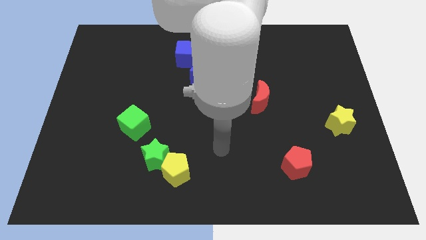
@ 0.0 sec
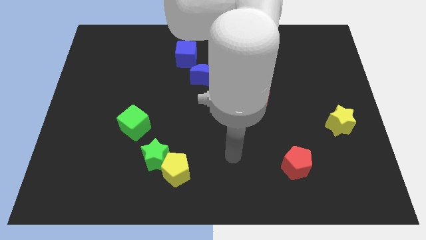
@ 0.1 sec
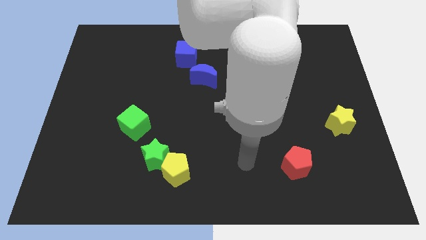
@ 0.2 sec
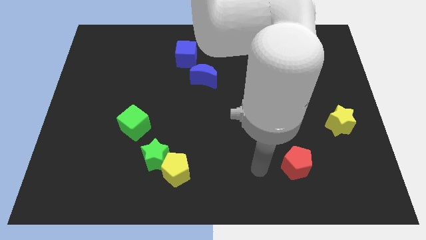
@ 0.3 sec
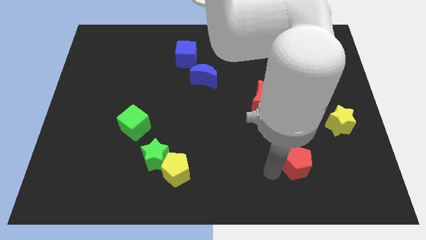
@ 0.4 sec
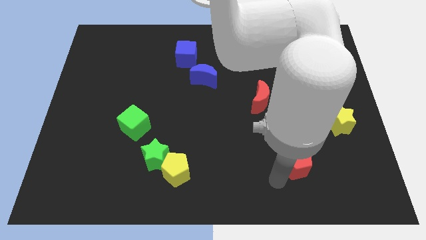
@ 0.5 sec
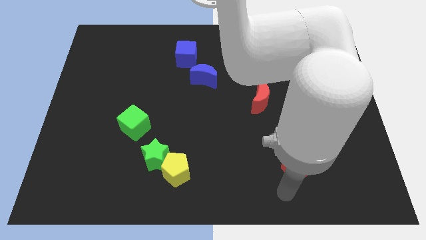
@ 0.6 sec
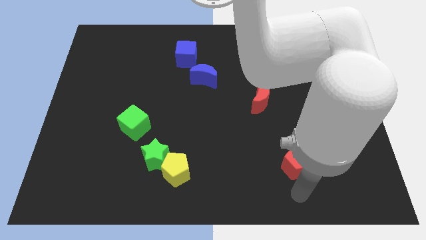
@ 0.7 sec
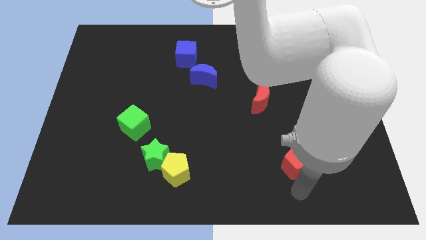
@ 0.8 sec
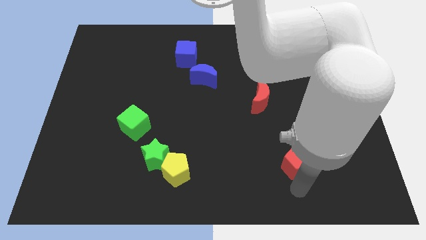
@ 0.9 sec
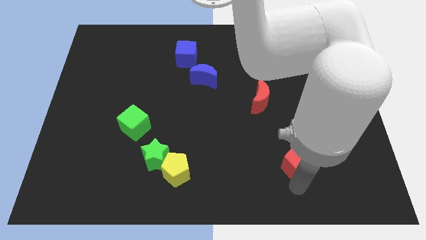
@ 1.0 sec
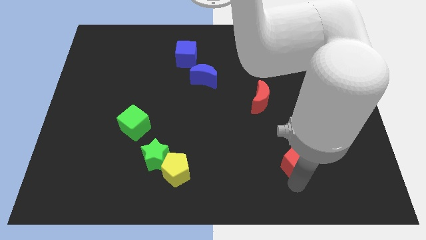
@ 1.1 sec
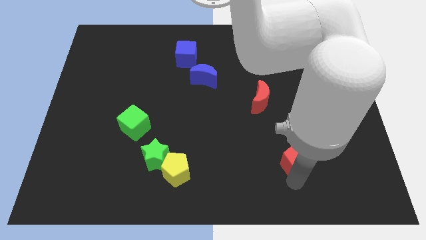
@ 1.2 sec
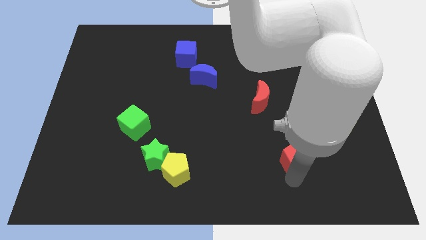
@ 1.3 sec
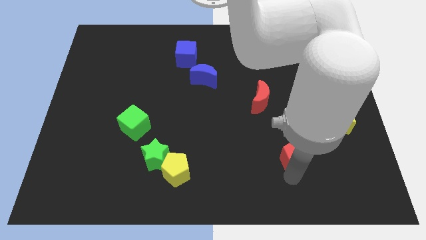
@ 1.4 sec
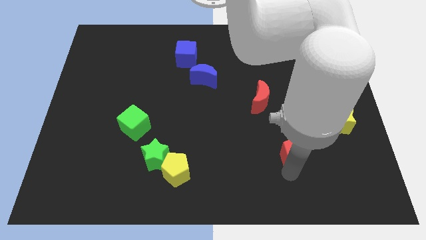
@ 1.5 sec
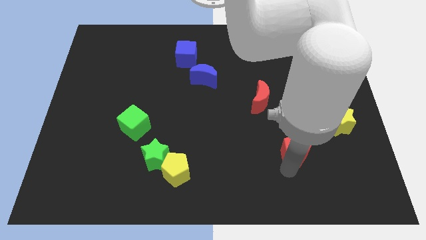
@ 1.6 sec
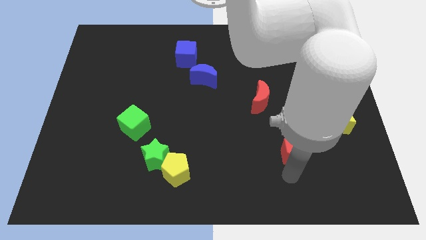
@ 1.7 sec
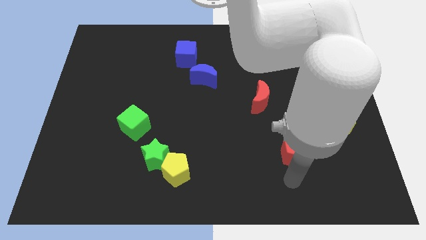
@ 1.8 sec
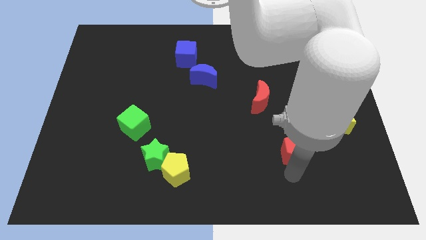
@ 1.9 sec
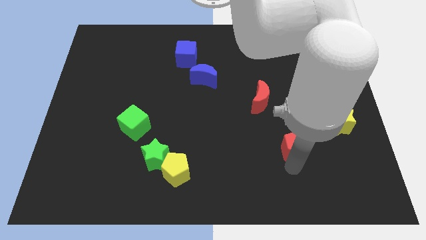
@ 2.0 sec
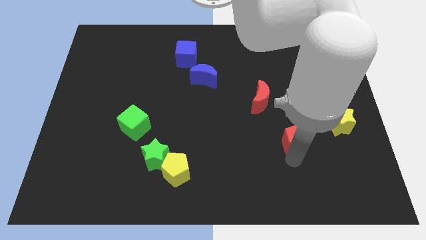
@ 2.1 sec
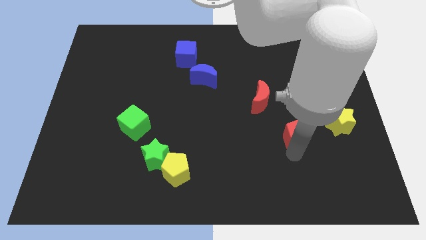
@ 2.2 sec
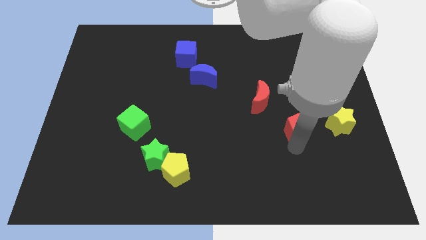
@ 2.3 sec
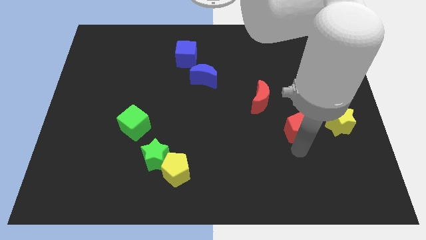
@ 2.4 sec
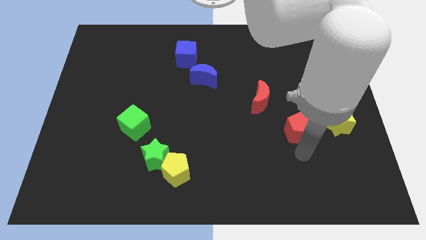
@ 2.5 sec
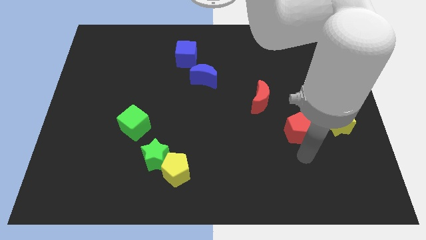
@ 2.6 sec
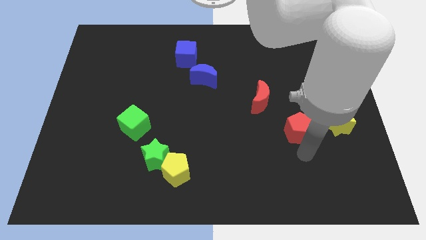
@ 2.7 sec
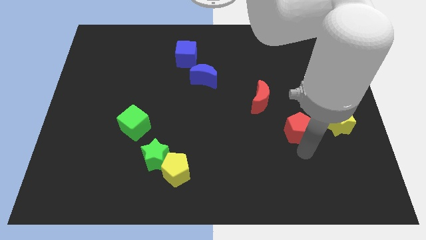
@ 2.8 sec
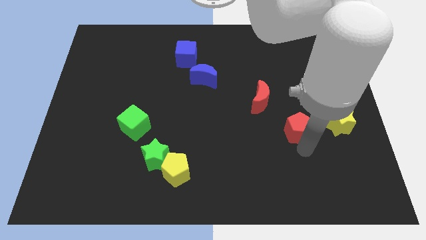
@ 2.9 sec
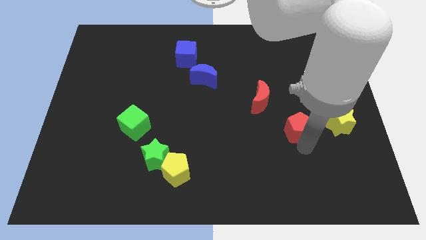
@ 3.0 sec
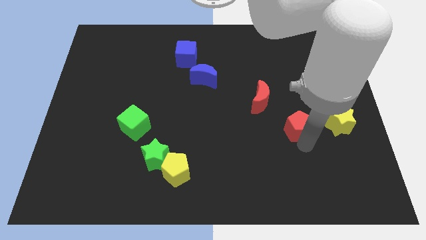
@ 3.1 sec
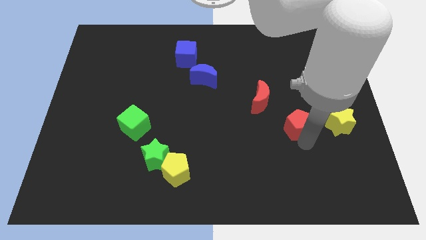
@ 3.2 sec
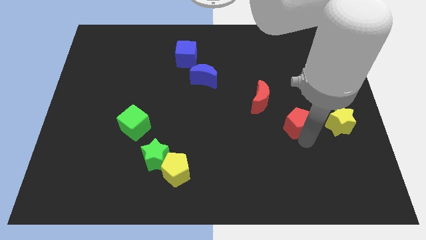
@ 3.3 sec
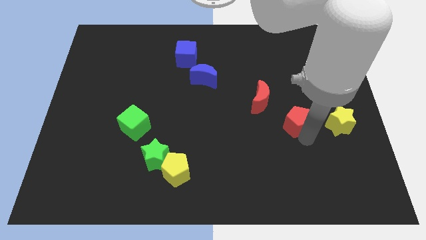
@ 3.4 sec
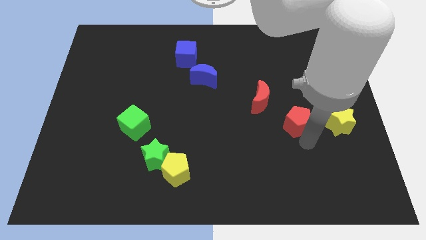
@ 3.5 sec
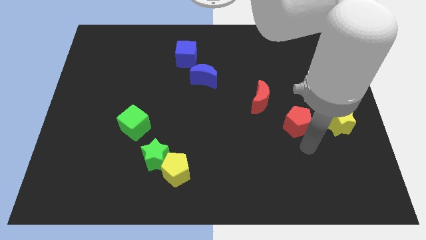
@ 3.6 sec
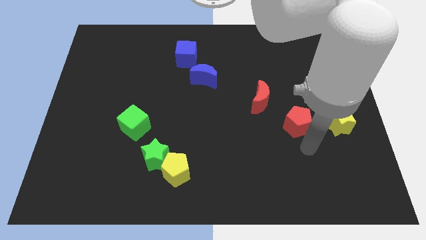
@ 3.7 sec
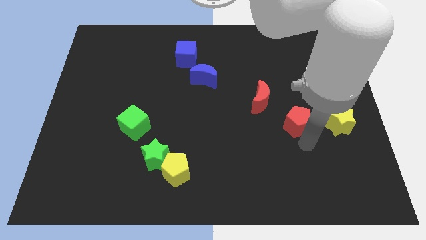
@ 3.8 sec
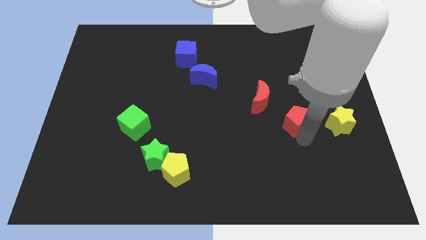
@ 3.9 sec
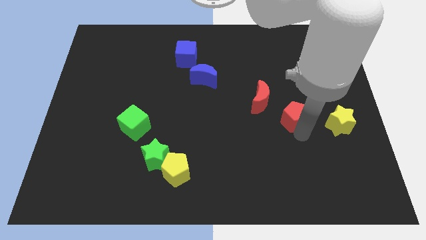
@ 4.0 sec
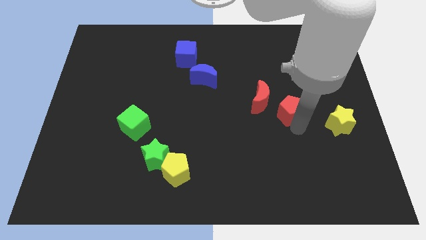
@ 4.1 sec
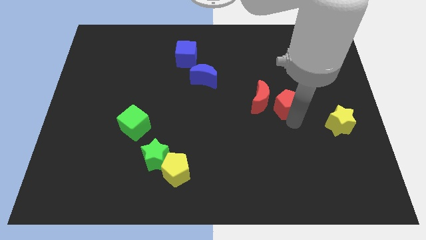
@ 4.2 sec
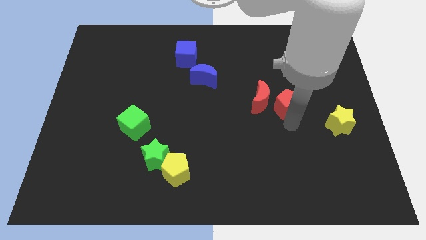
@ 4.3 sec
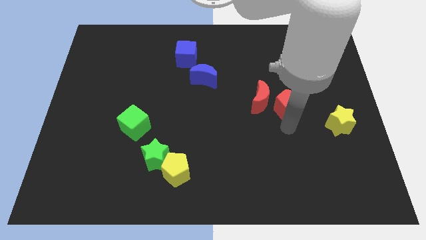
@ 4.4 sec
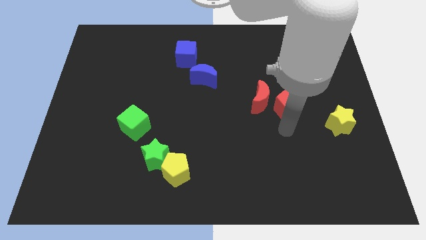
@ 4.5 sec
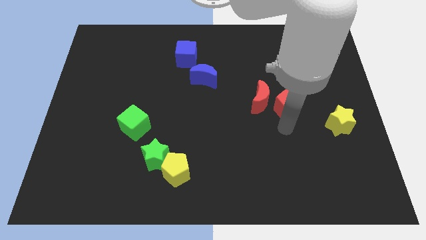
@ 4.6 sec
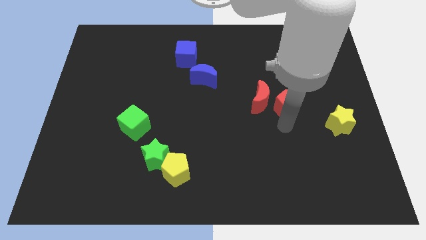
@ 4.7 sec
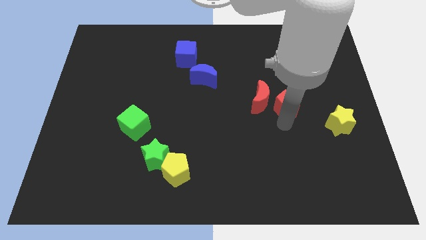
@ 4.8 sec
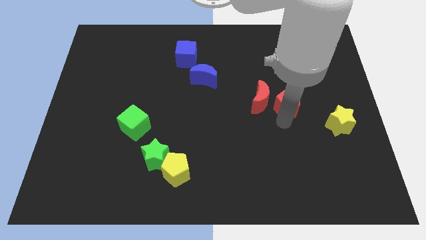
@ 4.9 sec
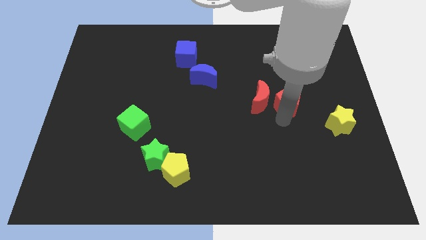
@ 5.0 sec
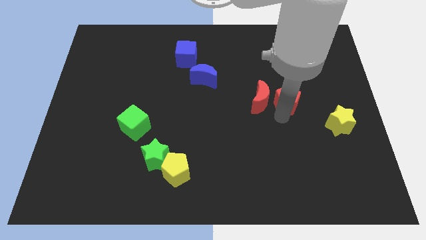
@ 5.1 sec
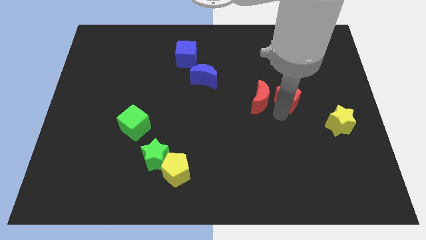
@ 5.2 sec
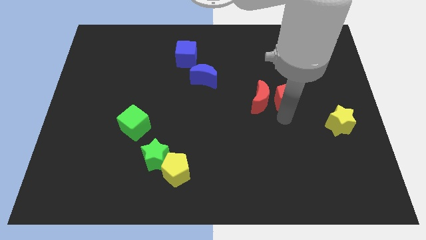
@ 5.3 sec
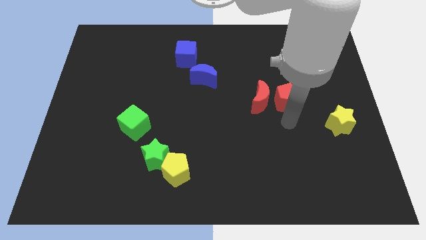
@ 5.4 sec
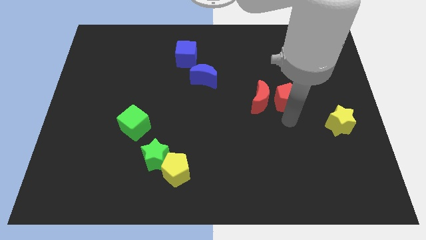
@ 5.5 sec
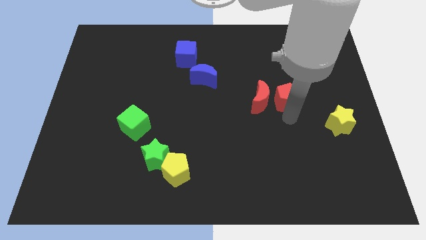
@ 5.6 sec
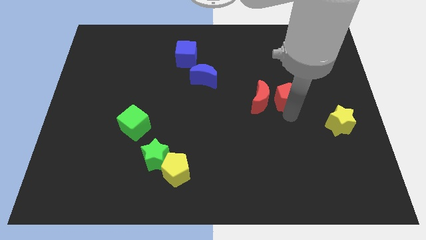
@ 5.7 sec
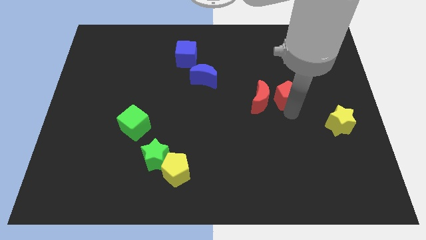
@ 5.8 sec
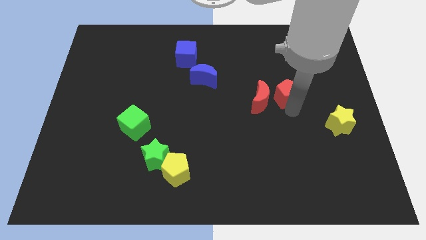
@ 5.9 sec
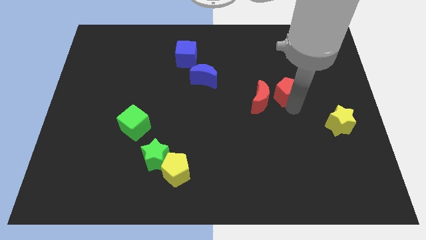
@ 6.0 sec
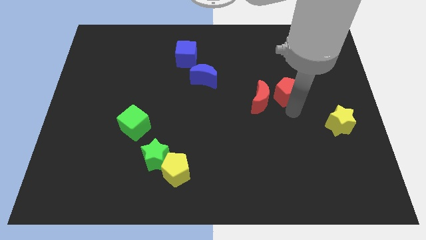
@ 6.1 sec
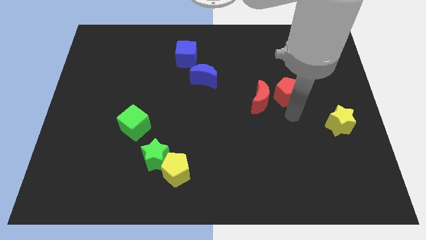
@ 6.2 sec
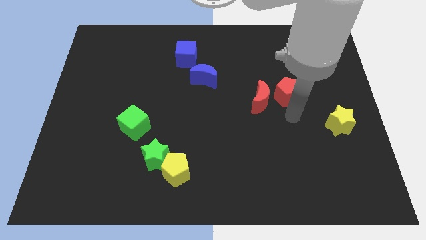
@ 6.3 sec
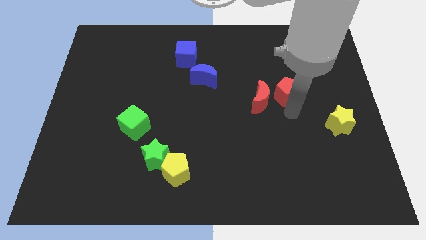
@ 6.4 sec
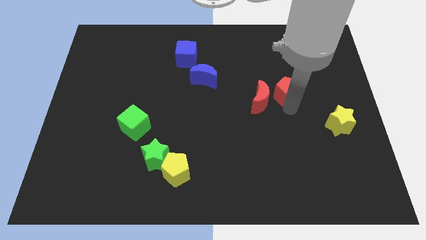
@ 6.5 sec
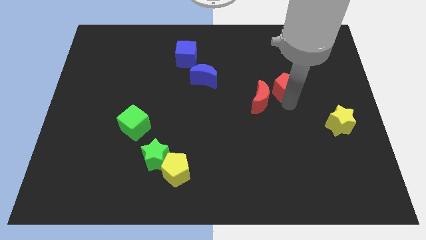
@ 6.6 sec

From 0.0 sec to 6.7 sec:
move the red pentagon upwards

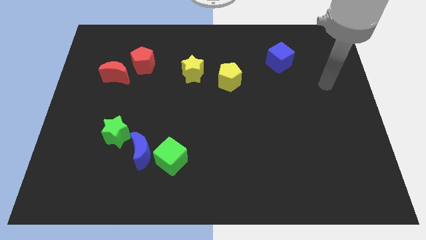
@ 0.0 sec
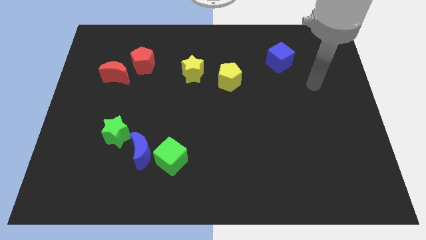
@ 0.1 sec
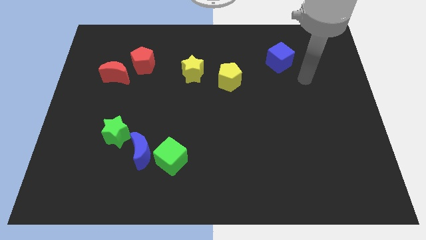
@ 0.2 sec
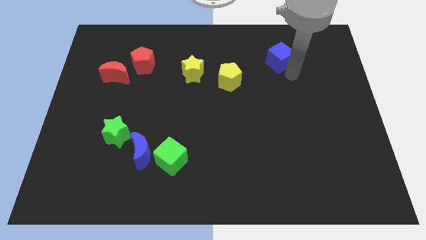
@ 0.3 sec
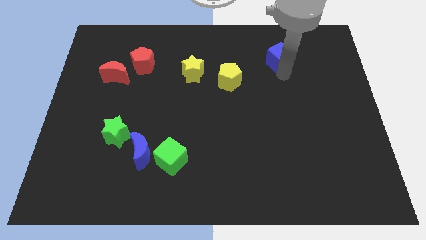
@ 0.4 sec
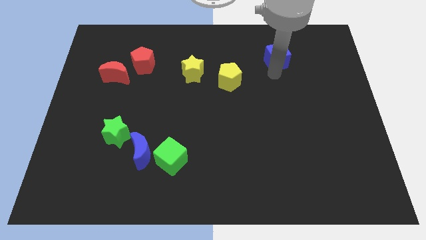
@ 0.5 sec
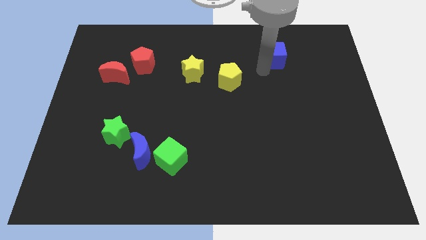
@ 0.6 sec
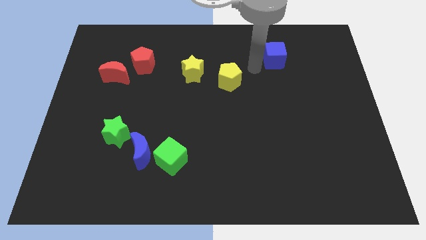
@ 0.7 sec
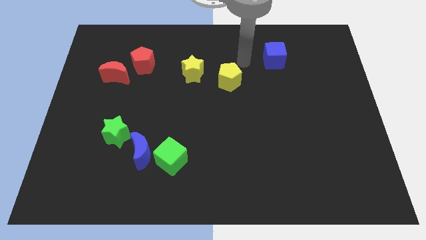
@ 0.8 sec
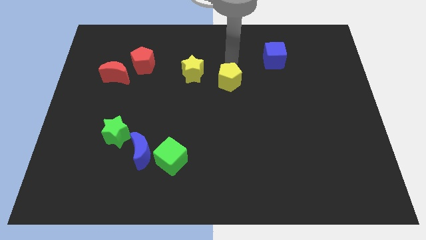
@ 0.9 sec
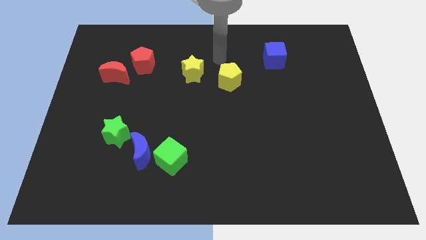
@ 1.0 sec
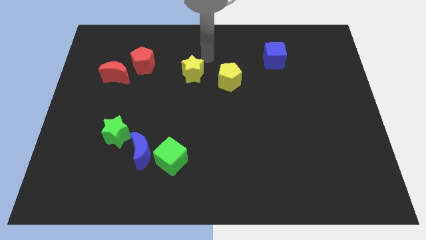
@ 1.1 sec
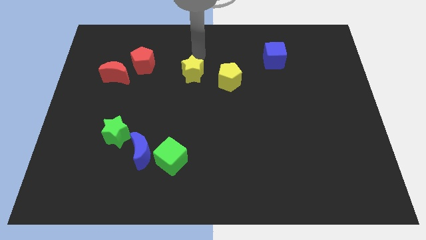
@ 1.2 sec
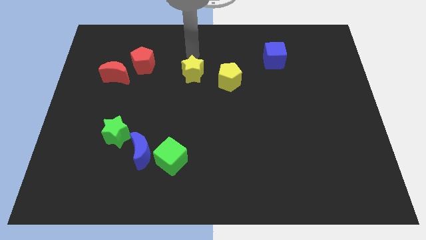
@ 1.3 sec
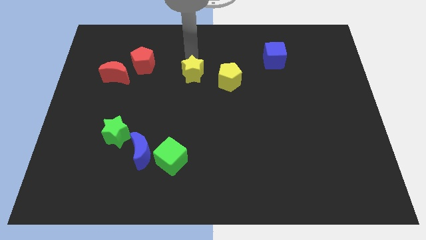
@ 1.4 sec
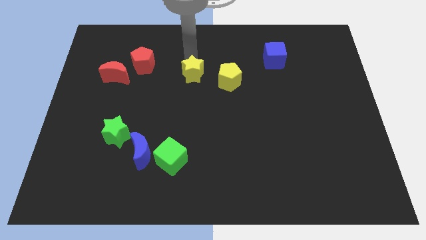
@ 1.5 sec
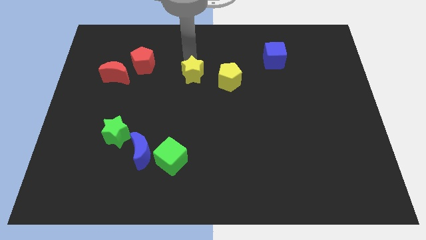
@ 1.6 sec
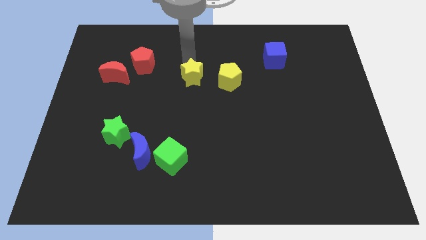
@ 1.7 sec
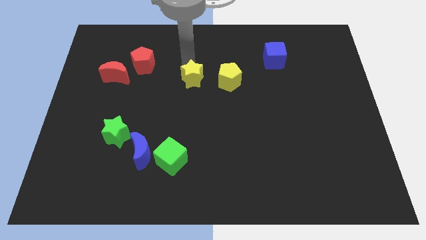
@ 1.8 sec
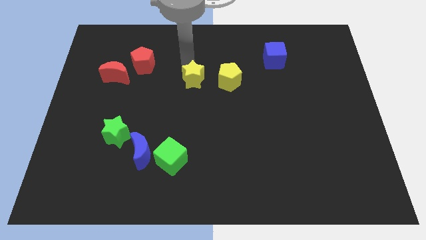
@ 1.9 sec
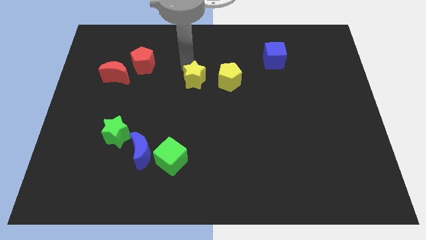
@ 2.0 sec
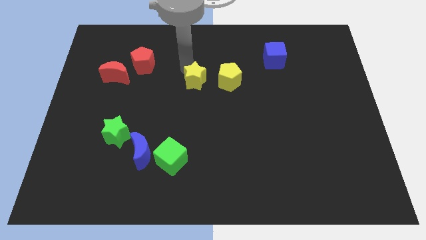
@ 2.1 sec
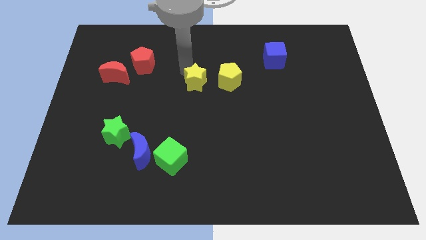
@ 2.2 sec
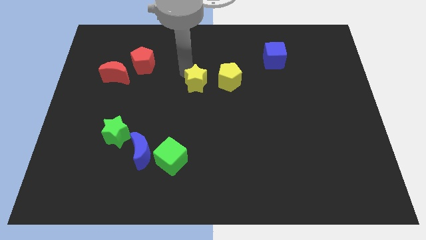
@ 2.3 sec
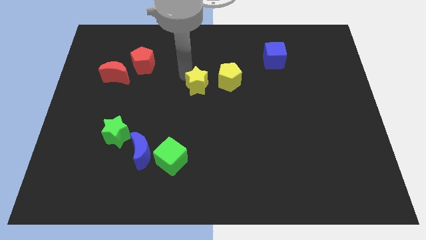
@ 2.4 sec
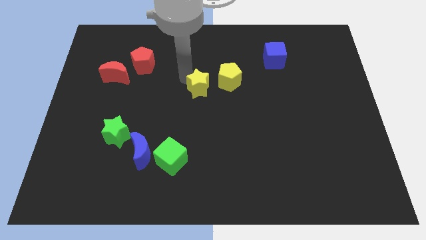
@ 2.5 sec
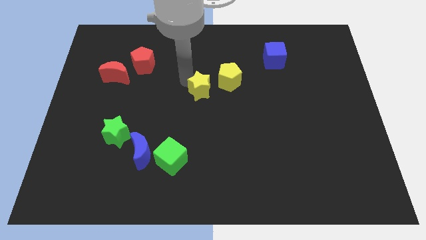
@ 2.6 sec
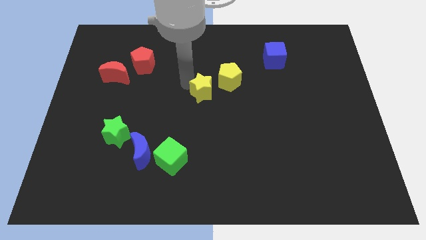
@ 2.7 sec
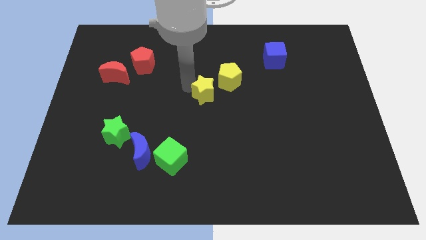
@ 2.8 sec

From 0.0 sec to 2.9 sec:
push the yellow star a little down
